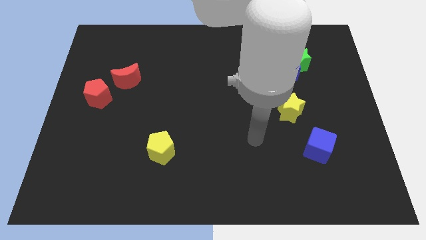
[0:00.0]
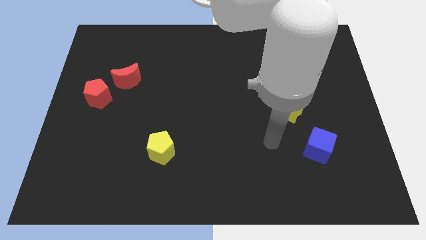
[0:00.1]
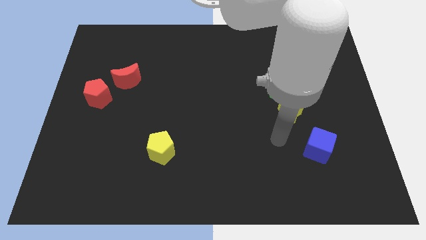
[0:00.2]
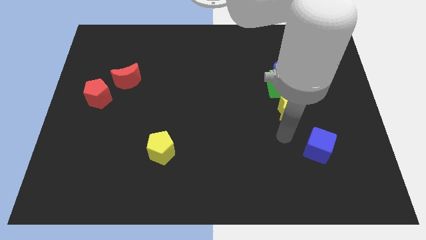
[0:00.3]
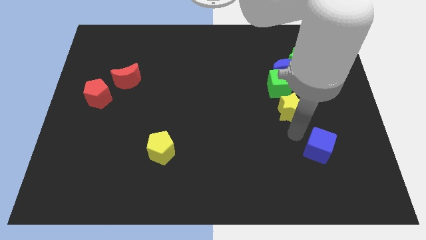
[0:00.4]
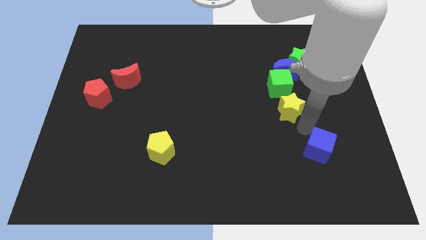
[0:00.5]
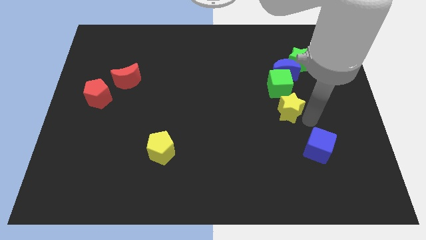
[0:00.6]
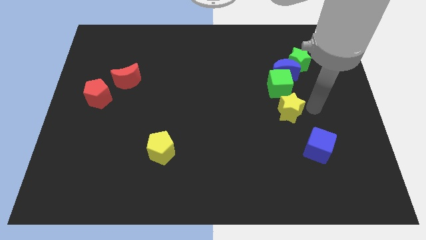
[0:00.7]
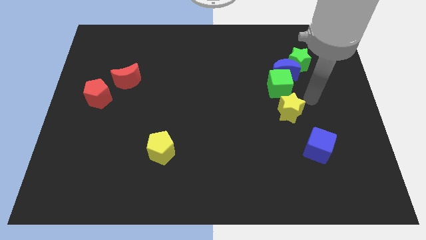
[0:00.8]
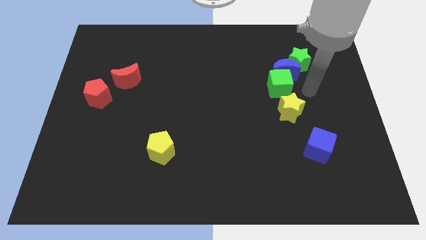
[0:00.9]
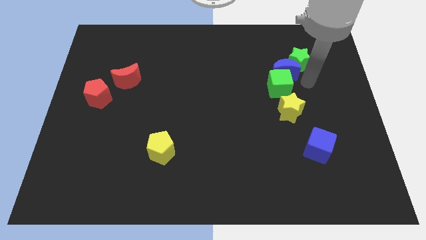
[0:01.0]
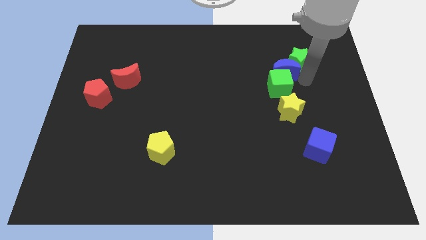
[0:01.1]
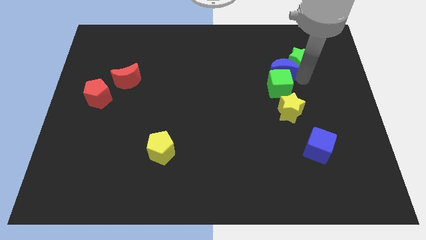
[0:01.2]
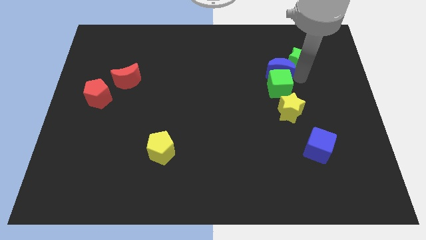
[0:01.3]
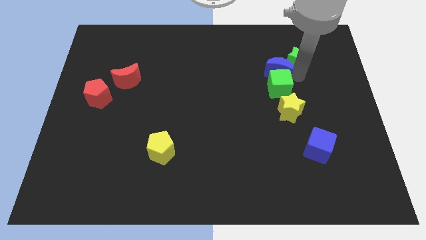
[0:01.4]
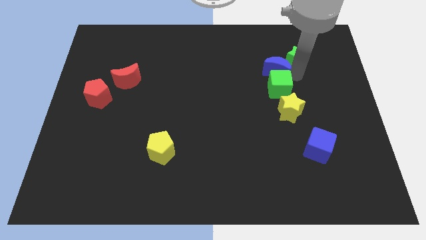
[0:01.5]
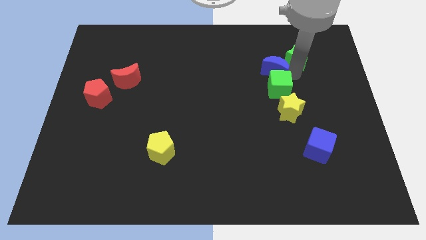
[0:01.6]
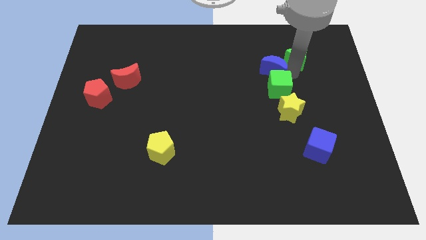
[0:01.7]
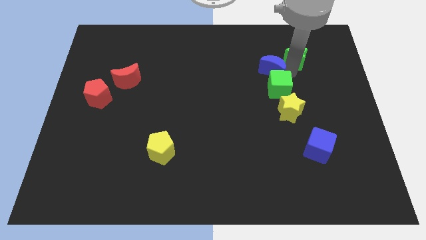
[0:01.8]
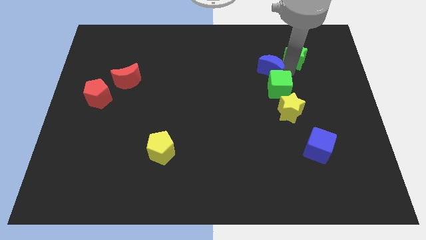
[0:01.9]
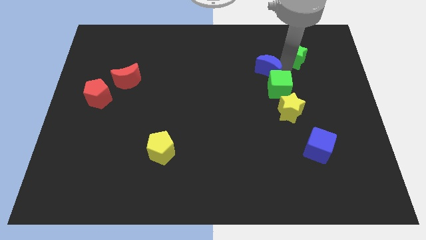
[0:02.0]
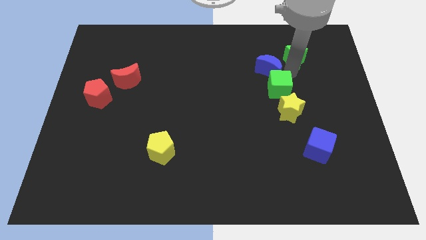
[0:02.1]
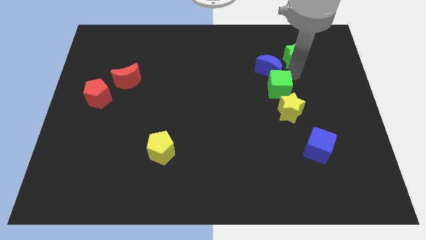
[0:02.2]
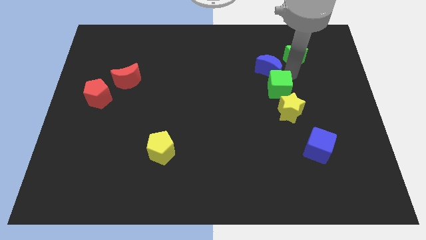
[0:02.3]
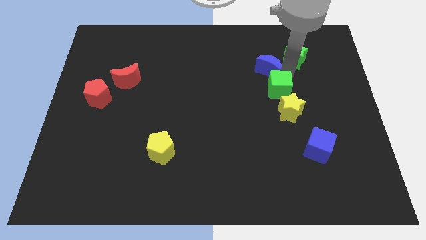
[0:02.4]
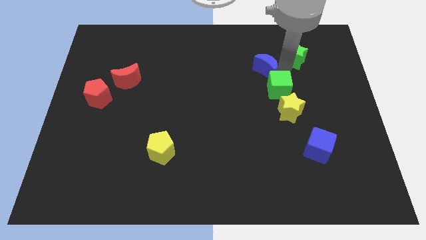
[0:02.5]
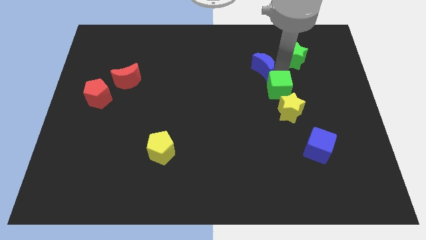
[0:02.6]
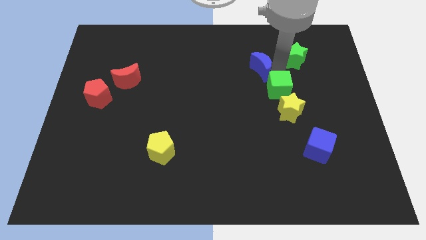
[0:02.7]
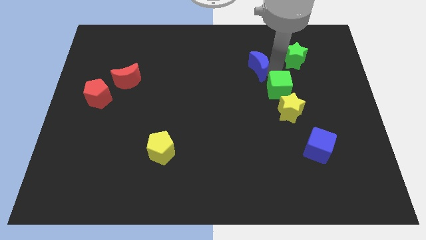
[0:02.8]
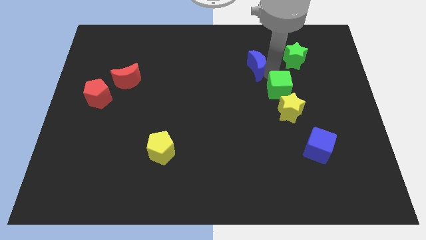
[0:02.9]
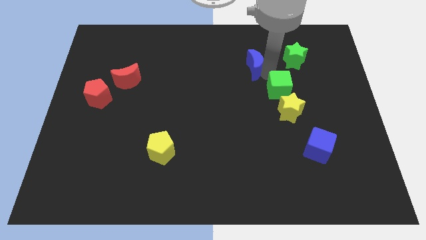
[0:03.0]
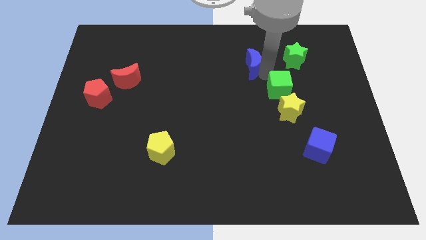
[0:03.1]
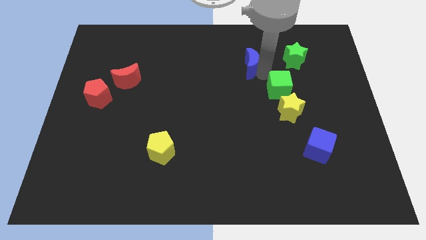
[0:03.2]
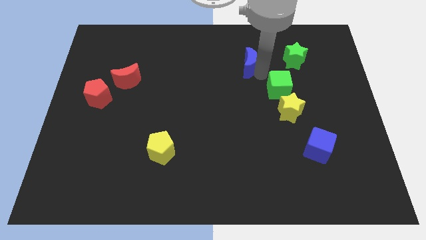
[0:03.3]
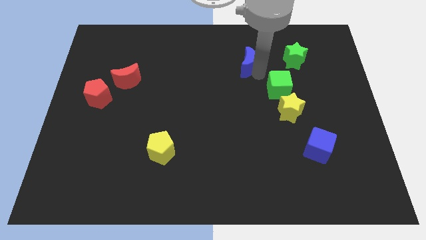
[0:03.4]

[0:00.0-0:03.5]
move the blue moon away from the green cube and green star

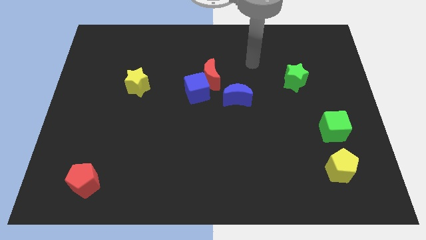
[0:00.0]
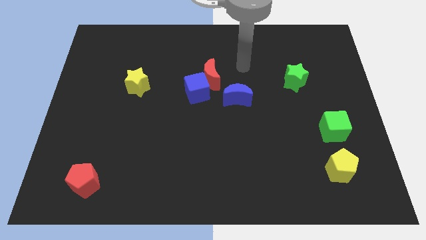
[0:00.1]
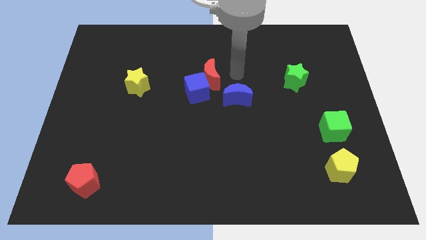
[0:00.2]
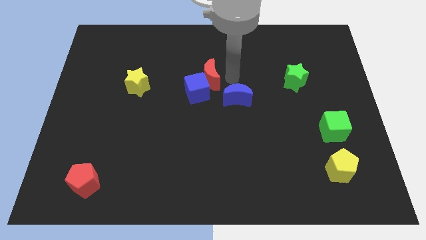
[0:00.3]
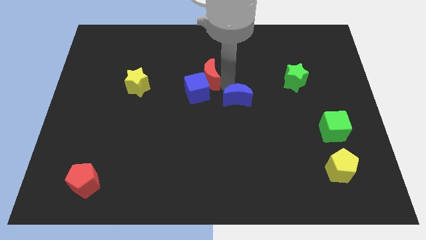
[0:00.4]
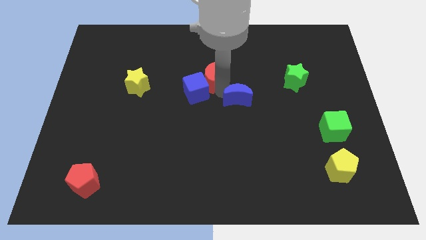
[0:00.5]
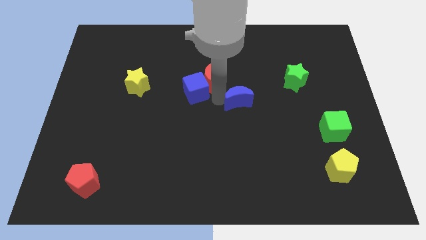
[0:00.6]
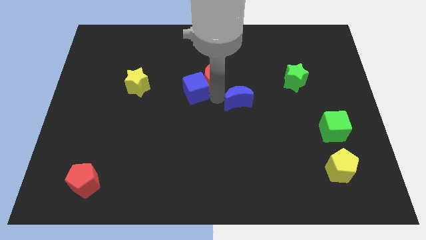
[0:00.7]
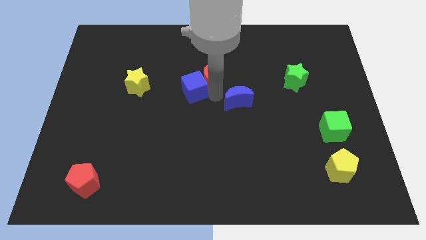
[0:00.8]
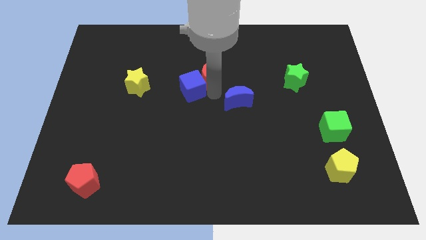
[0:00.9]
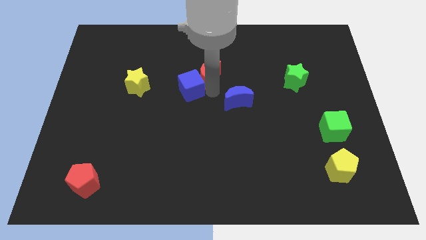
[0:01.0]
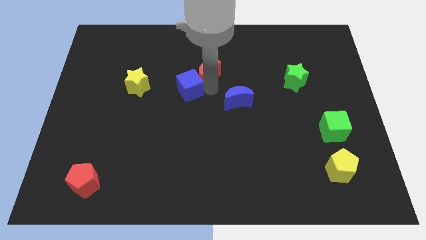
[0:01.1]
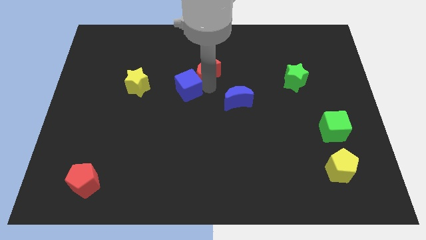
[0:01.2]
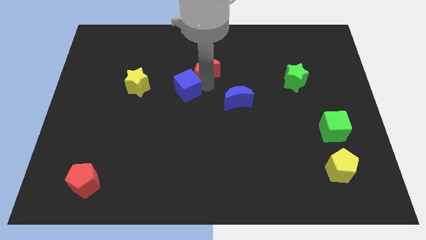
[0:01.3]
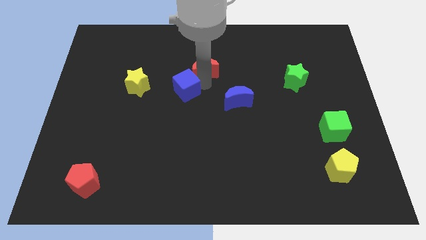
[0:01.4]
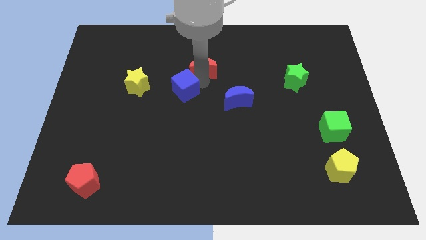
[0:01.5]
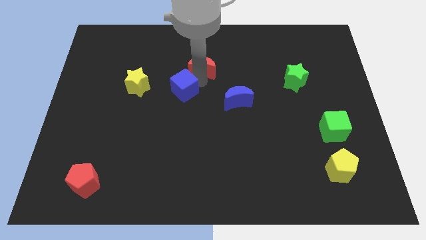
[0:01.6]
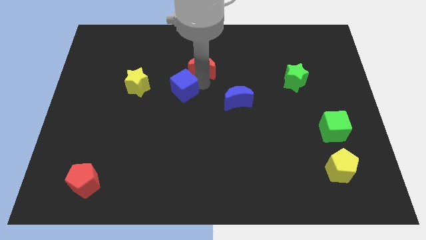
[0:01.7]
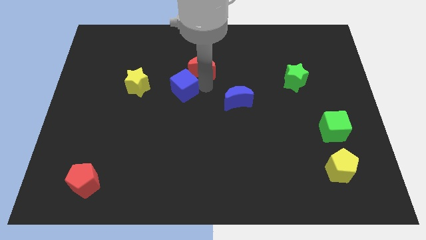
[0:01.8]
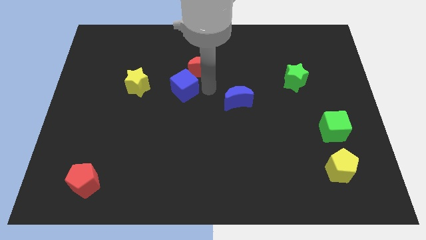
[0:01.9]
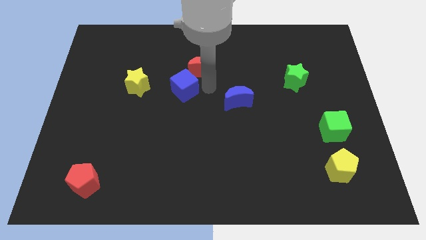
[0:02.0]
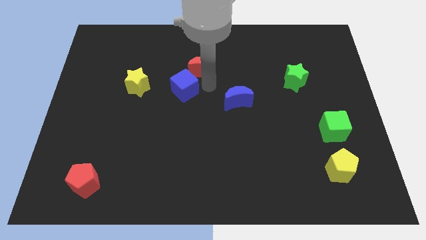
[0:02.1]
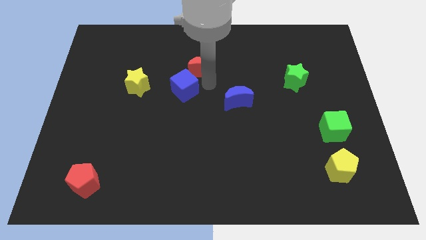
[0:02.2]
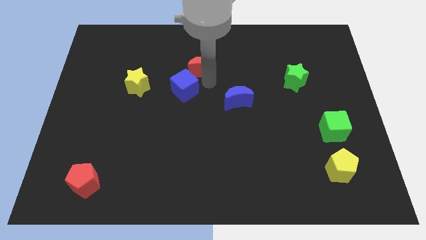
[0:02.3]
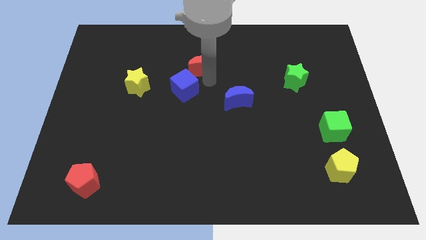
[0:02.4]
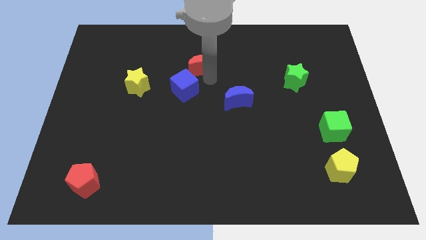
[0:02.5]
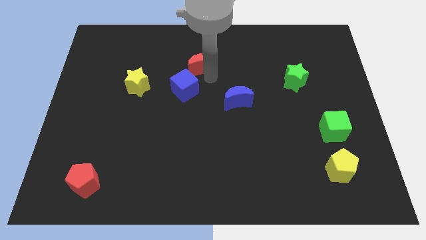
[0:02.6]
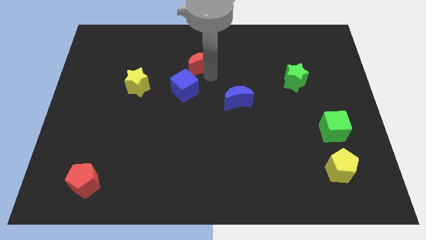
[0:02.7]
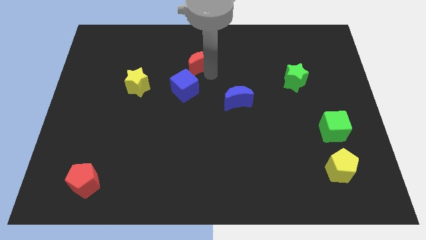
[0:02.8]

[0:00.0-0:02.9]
pull the red moon apart from the blue cube and blue moon

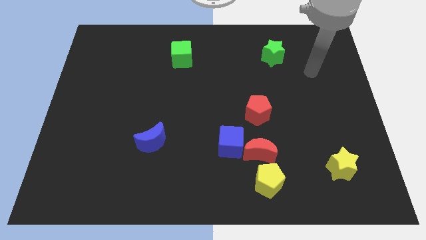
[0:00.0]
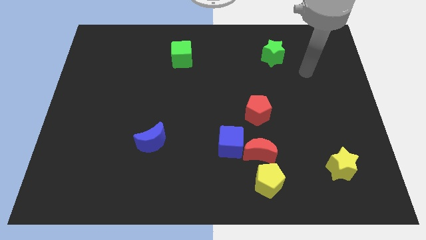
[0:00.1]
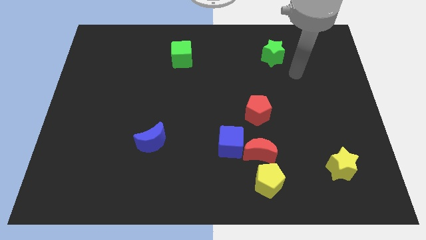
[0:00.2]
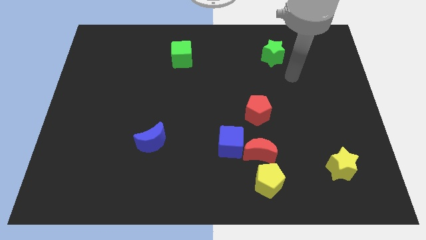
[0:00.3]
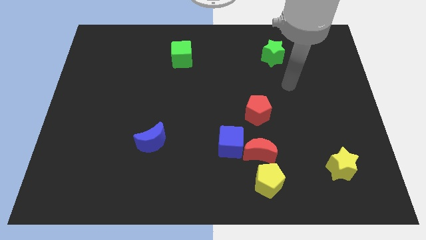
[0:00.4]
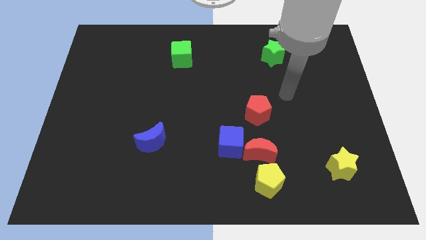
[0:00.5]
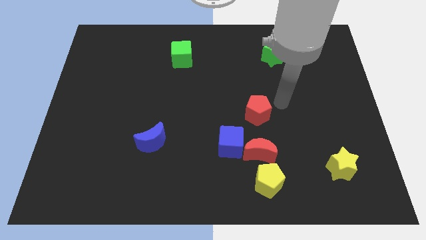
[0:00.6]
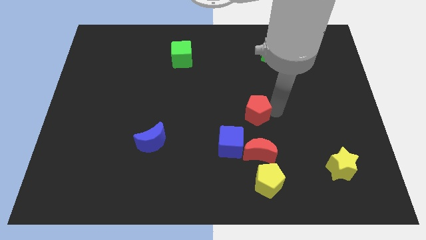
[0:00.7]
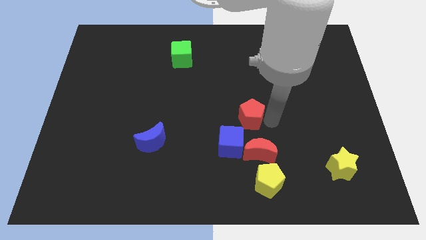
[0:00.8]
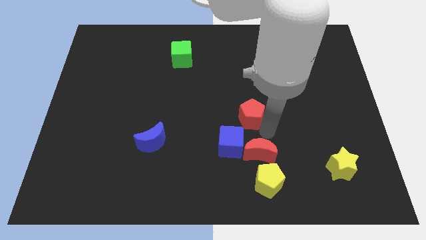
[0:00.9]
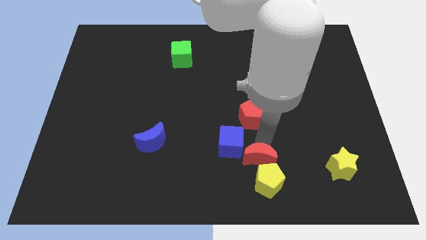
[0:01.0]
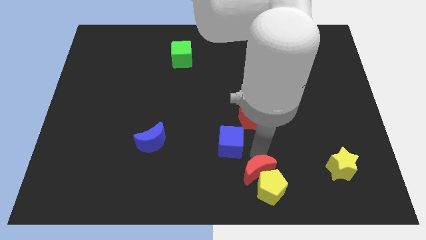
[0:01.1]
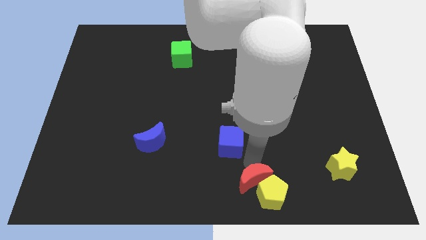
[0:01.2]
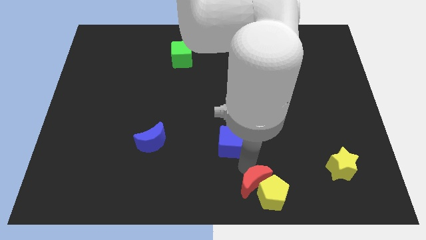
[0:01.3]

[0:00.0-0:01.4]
move the blue cube away from the red moon

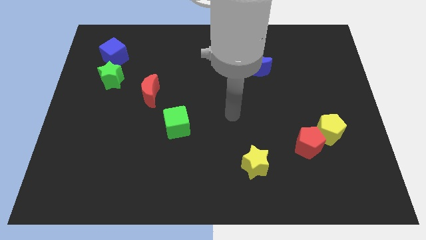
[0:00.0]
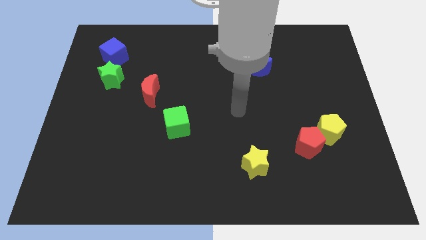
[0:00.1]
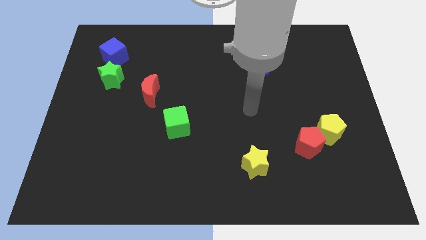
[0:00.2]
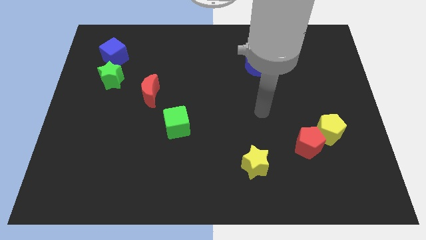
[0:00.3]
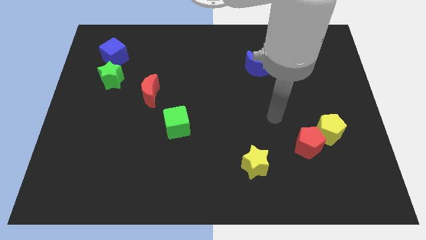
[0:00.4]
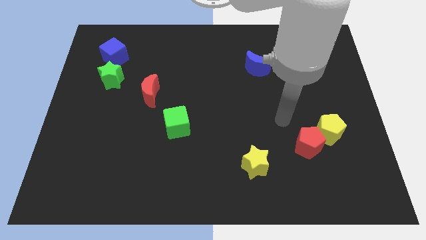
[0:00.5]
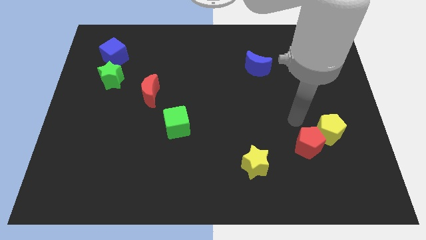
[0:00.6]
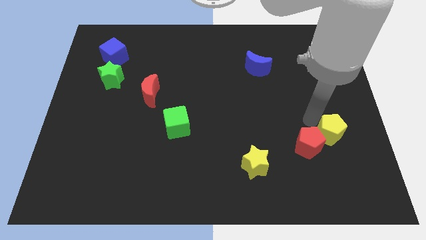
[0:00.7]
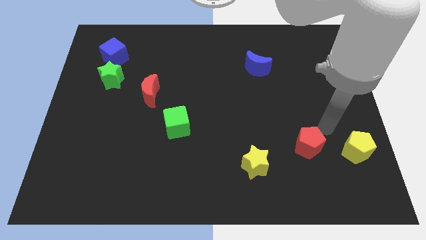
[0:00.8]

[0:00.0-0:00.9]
move the red pentagon away from the yellow pentagon

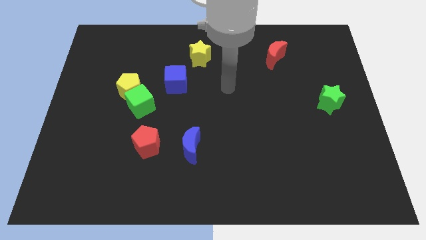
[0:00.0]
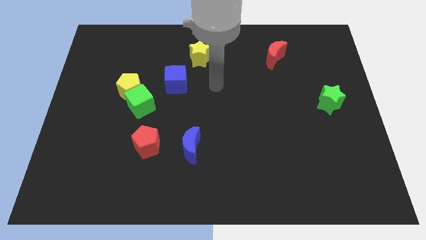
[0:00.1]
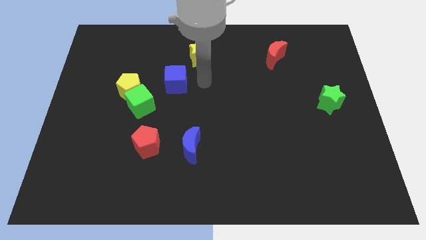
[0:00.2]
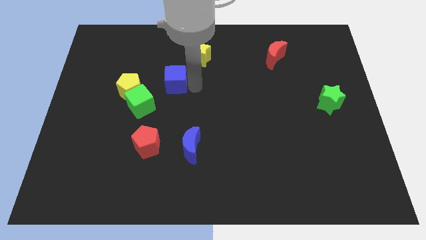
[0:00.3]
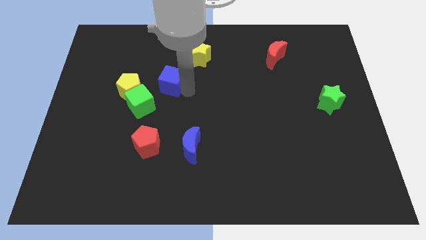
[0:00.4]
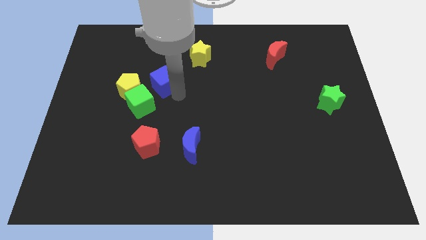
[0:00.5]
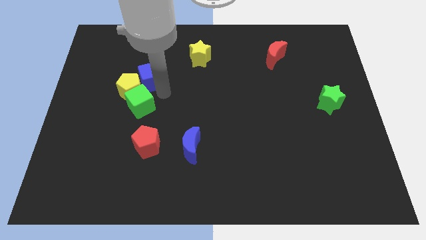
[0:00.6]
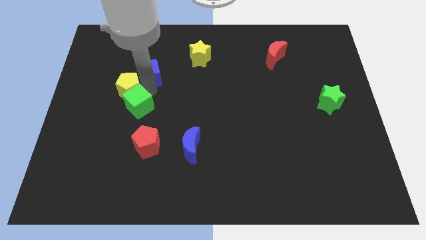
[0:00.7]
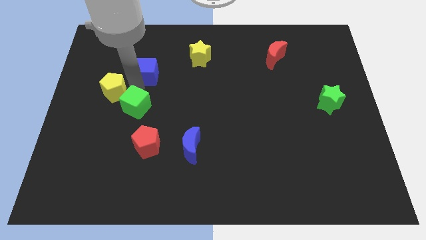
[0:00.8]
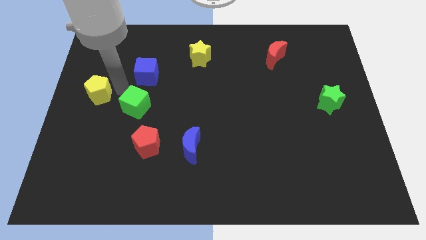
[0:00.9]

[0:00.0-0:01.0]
move the green cube away from the yellow pentagon
